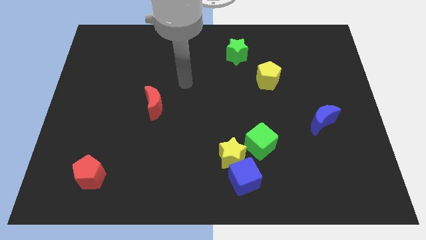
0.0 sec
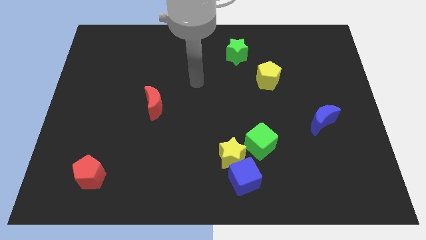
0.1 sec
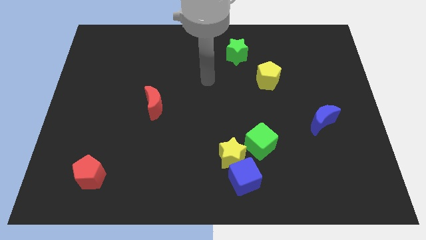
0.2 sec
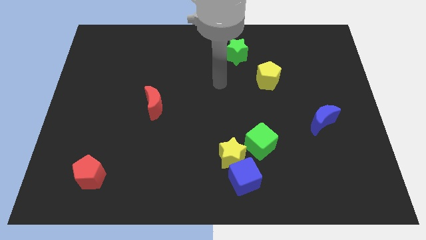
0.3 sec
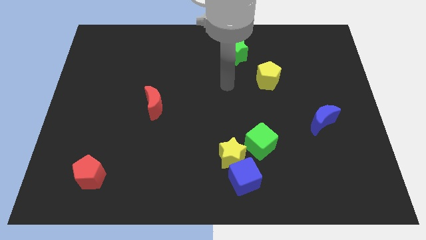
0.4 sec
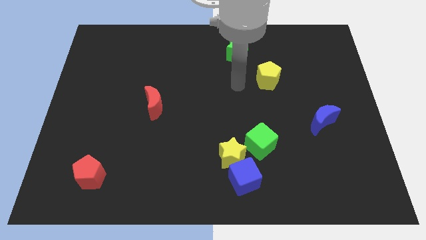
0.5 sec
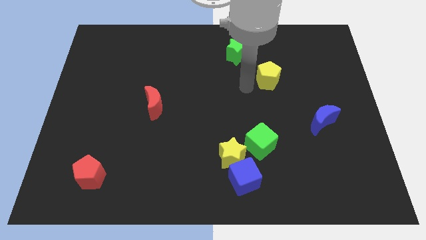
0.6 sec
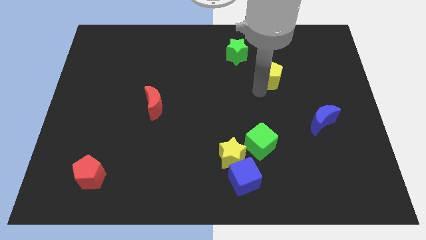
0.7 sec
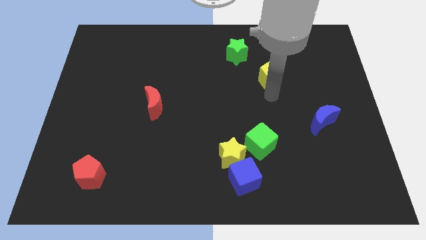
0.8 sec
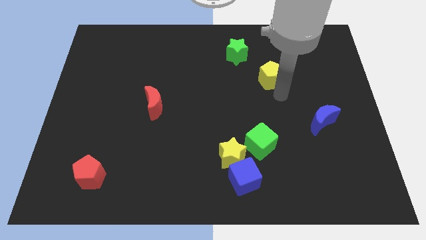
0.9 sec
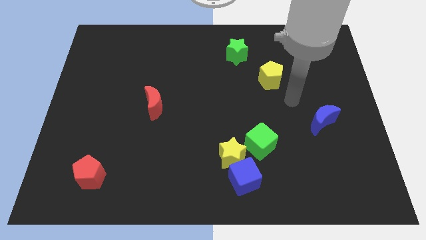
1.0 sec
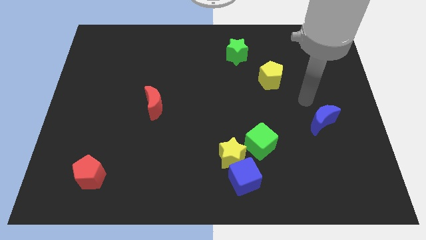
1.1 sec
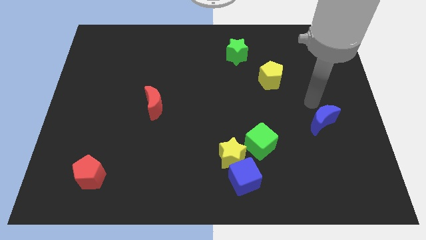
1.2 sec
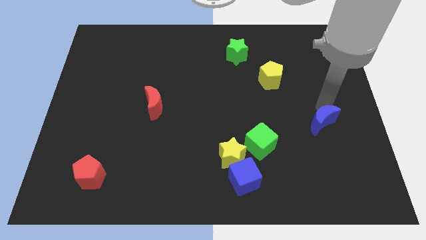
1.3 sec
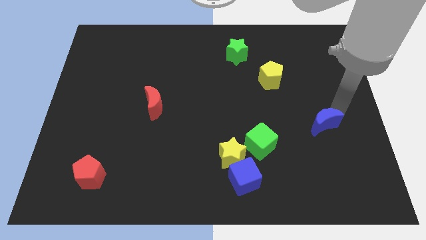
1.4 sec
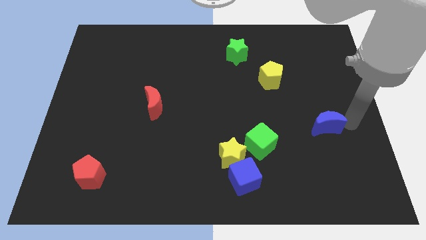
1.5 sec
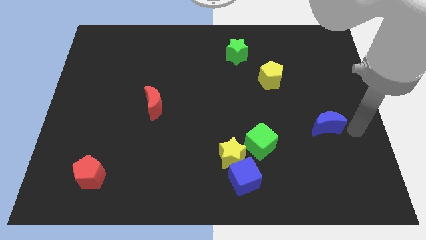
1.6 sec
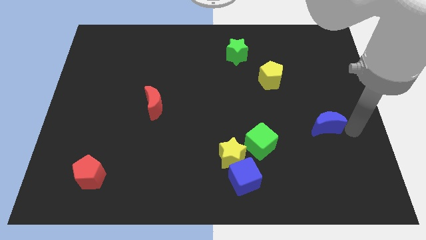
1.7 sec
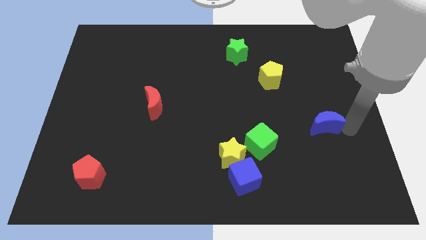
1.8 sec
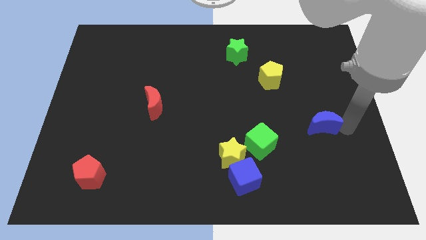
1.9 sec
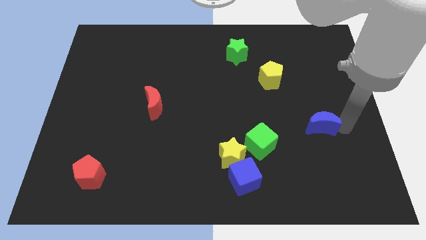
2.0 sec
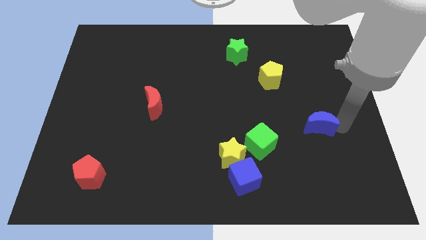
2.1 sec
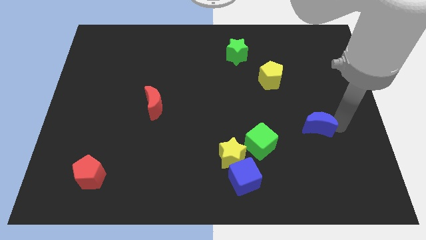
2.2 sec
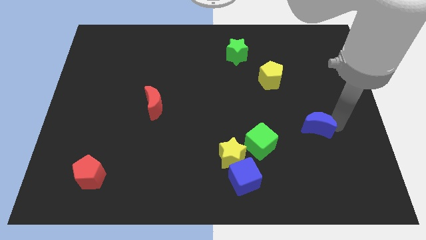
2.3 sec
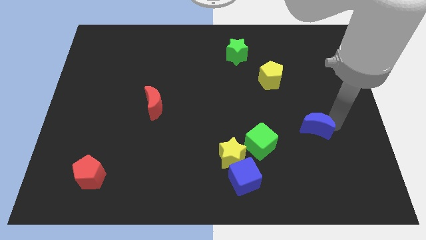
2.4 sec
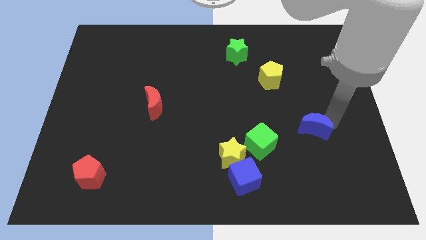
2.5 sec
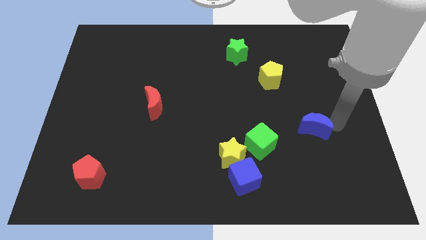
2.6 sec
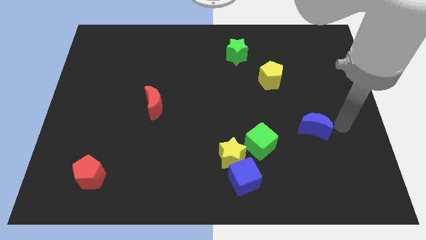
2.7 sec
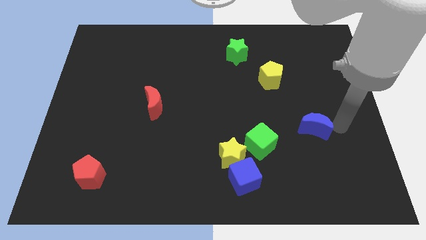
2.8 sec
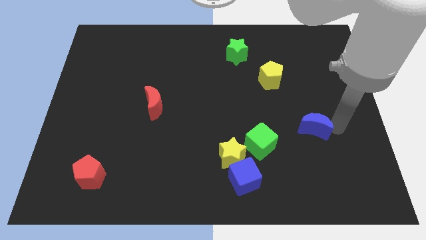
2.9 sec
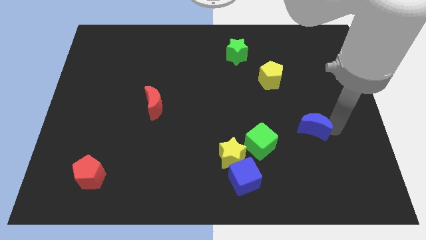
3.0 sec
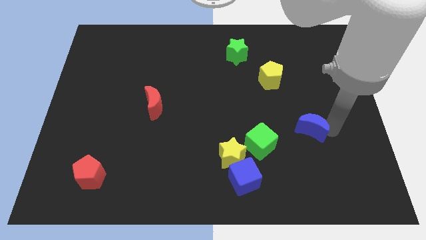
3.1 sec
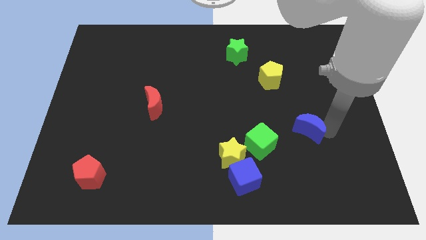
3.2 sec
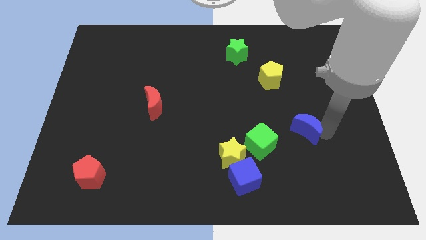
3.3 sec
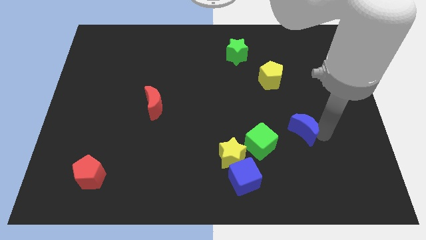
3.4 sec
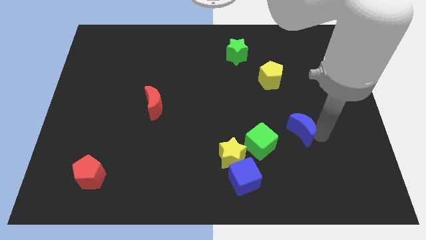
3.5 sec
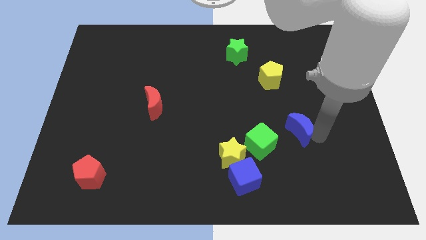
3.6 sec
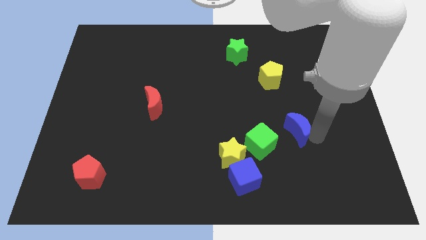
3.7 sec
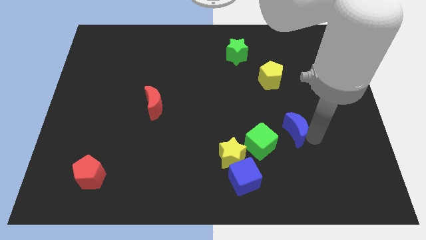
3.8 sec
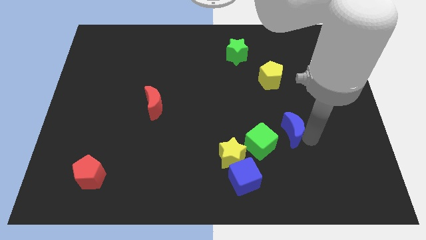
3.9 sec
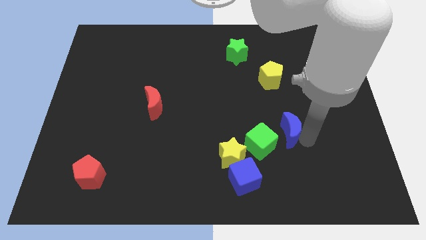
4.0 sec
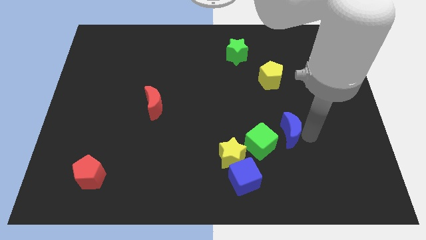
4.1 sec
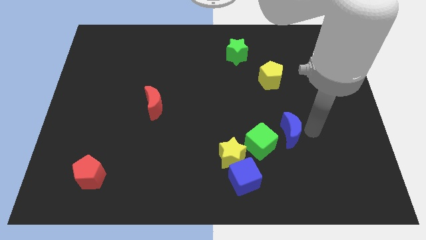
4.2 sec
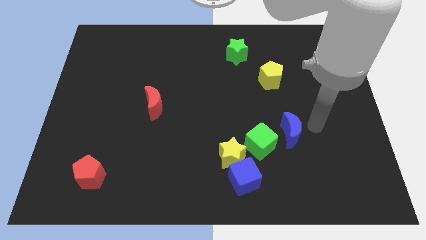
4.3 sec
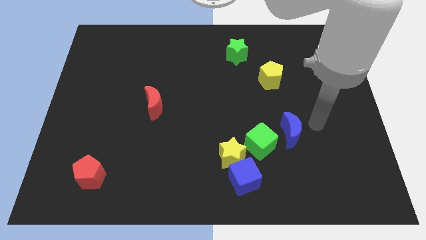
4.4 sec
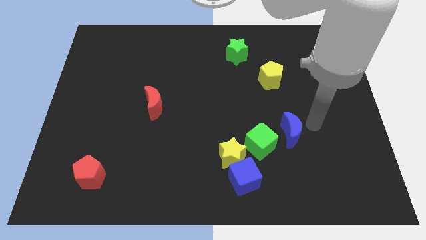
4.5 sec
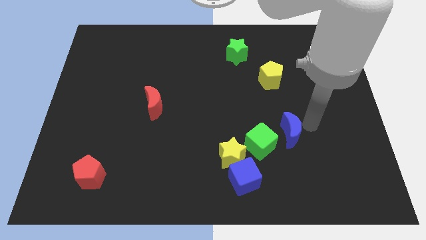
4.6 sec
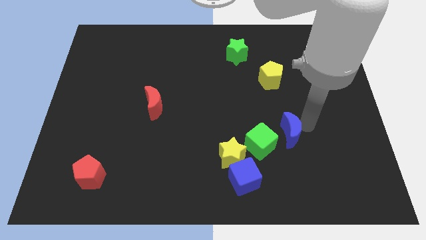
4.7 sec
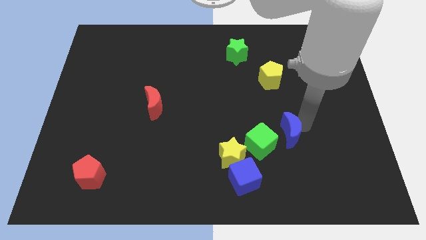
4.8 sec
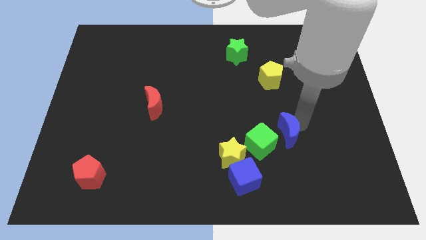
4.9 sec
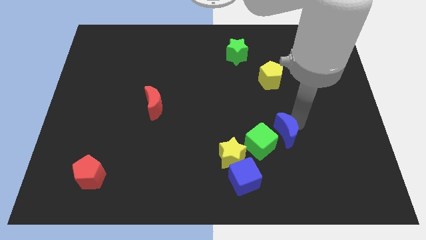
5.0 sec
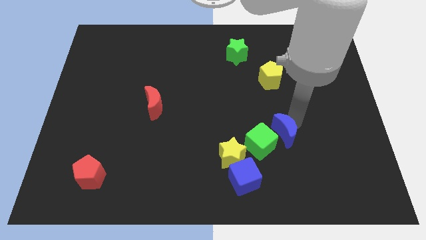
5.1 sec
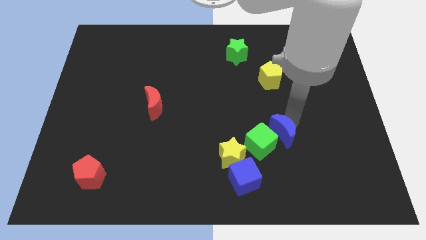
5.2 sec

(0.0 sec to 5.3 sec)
push the blue moon close to the green cube

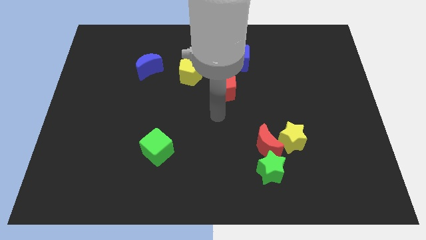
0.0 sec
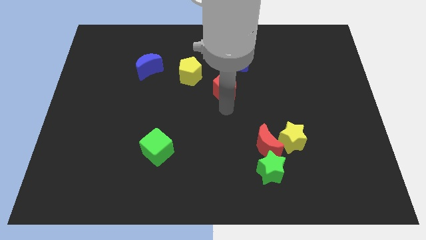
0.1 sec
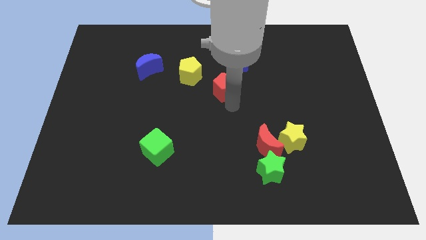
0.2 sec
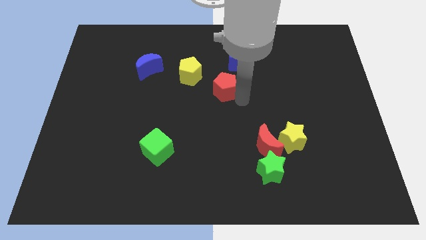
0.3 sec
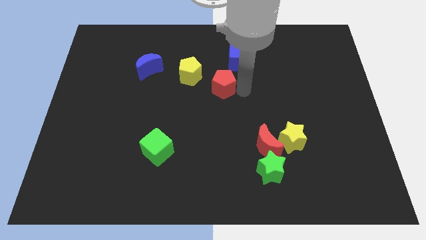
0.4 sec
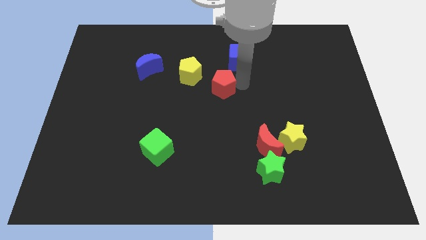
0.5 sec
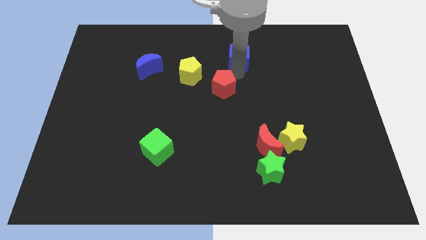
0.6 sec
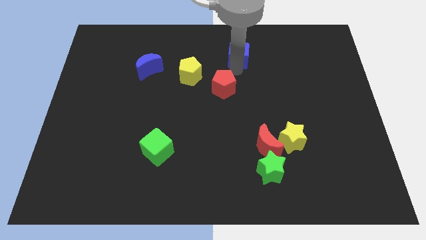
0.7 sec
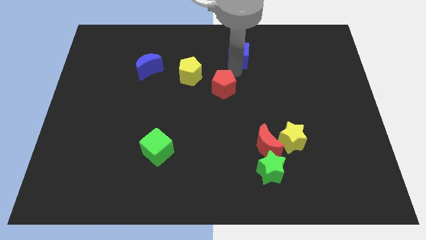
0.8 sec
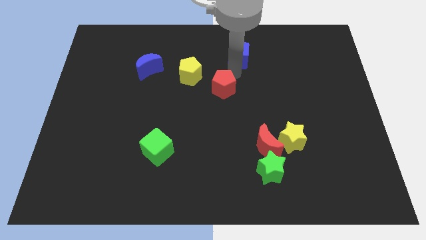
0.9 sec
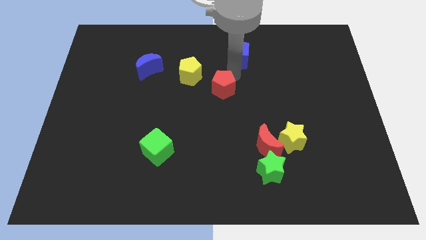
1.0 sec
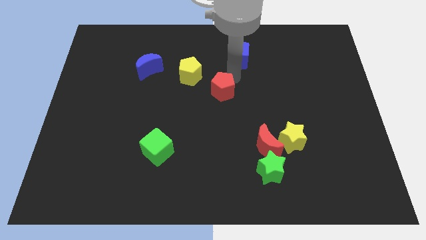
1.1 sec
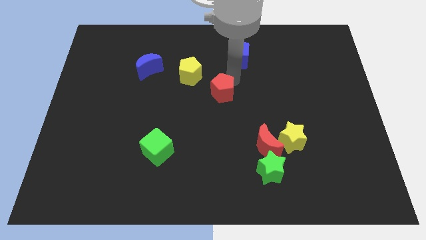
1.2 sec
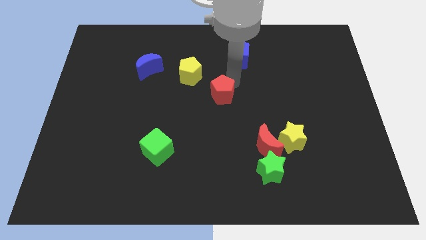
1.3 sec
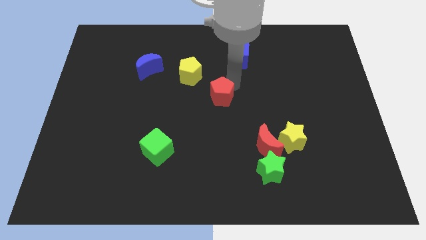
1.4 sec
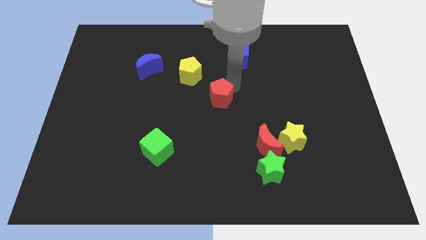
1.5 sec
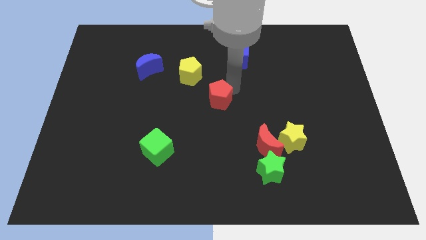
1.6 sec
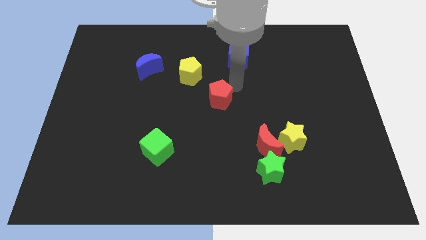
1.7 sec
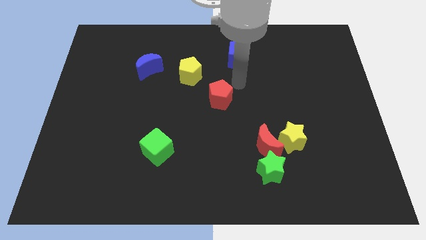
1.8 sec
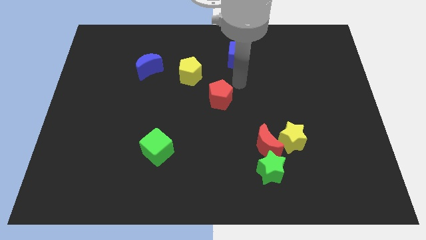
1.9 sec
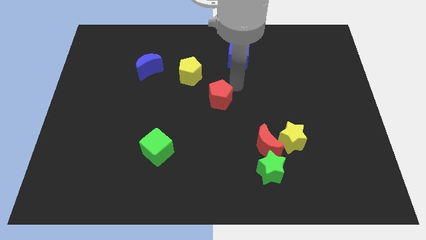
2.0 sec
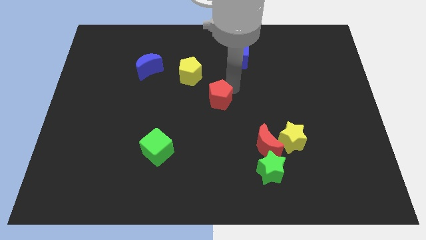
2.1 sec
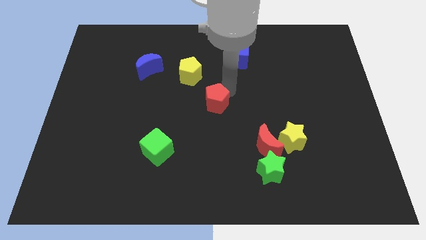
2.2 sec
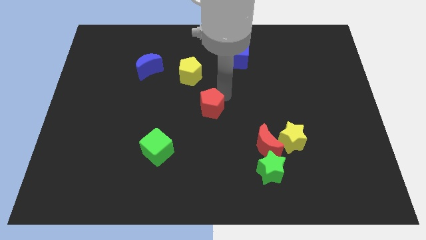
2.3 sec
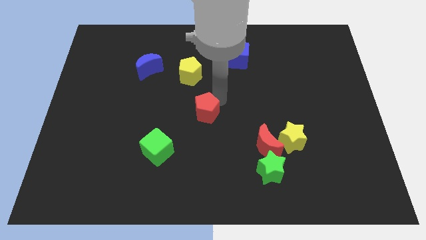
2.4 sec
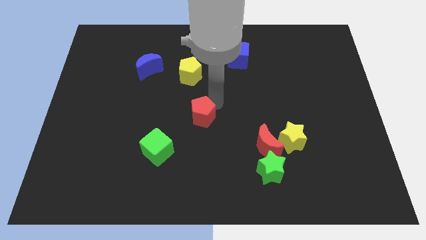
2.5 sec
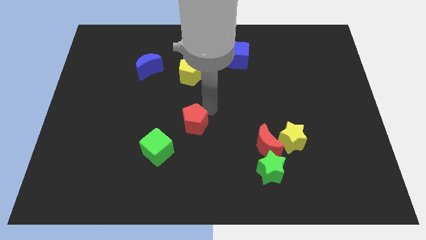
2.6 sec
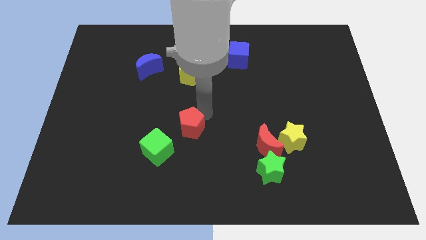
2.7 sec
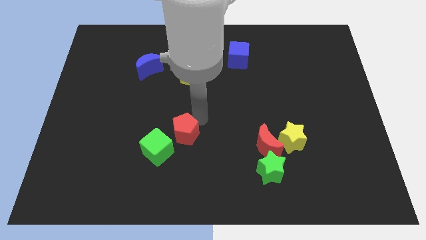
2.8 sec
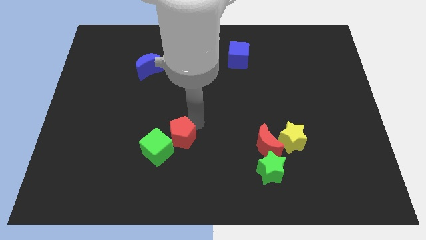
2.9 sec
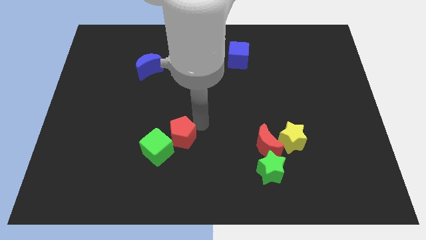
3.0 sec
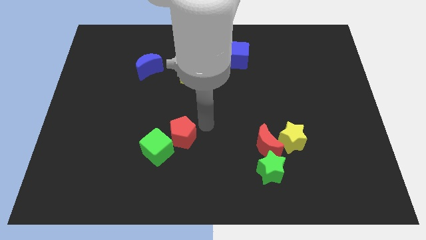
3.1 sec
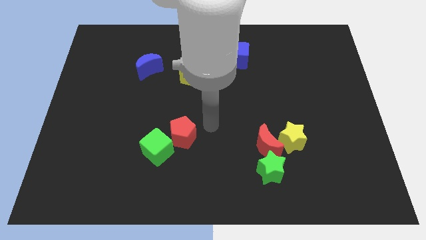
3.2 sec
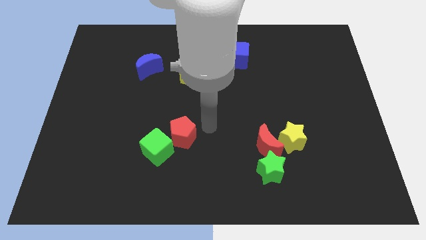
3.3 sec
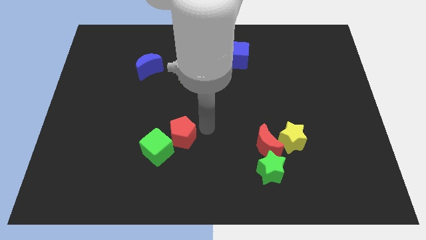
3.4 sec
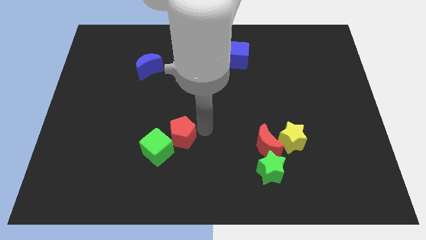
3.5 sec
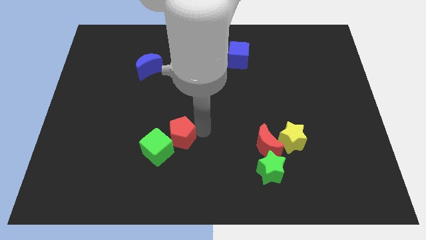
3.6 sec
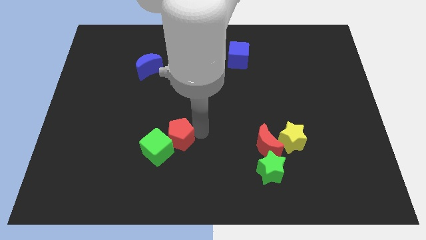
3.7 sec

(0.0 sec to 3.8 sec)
slide the red pentagon close to the green cube
